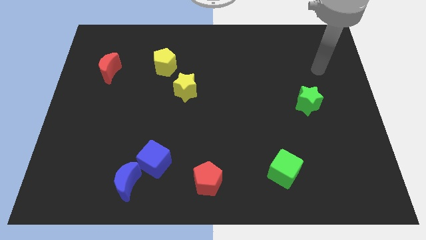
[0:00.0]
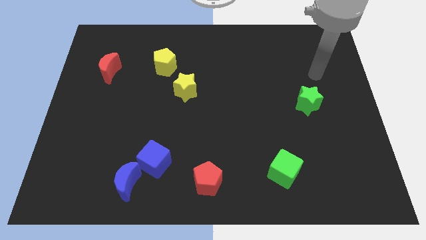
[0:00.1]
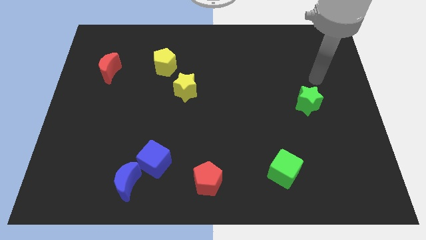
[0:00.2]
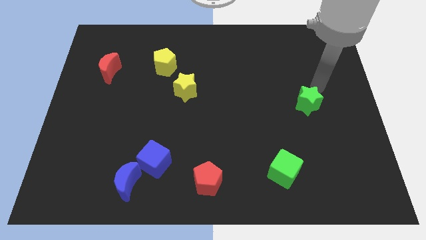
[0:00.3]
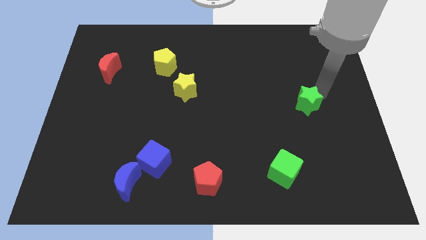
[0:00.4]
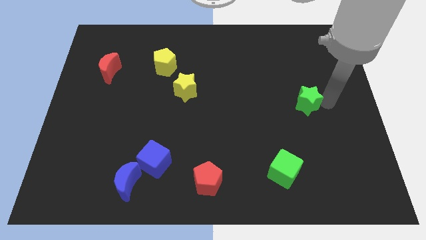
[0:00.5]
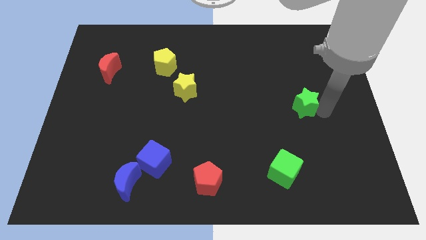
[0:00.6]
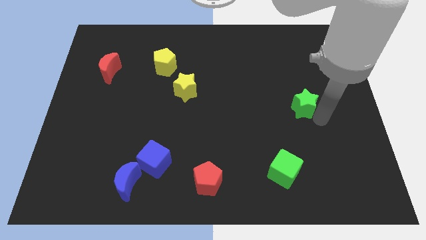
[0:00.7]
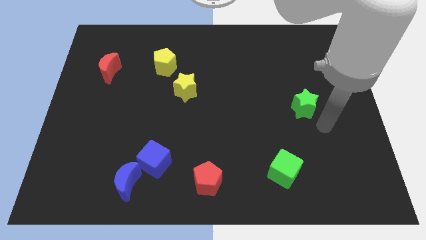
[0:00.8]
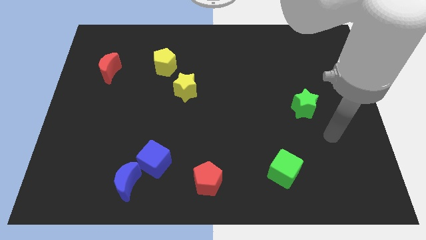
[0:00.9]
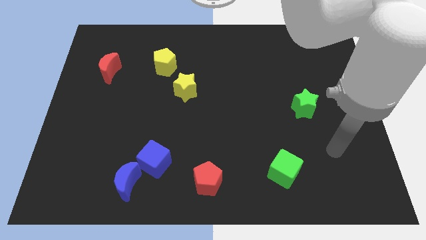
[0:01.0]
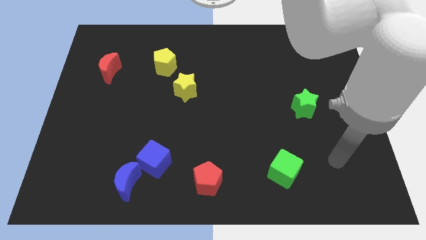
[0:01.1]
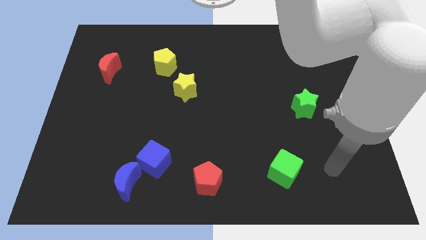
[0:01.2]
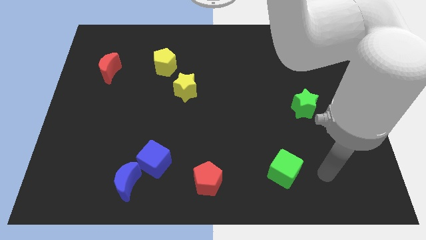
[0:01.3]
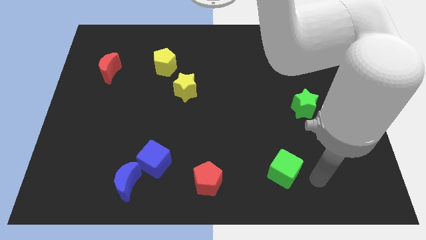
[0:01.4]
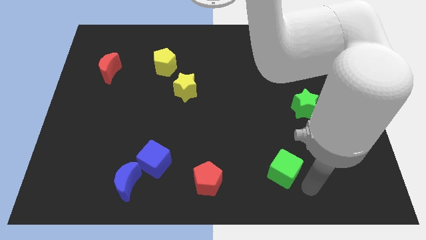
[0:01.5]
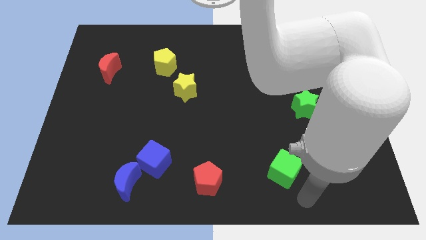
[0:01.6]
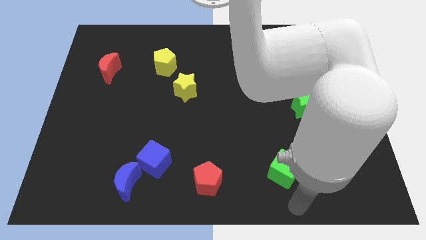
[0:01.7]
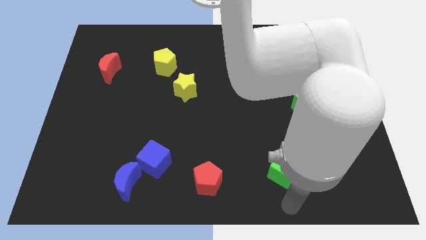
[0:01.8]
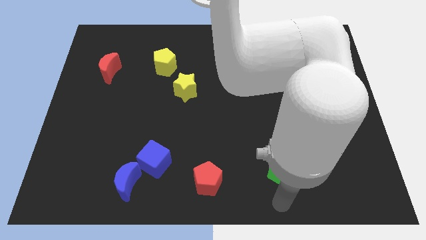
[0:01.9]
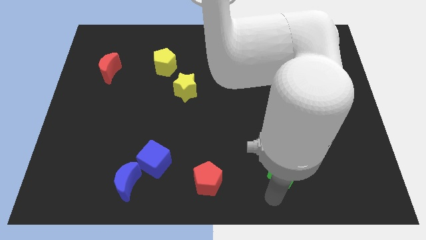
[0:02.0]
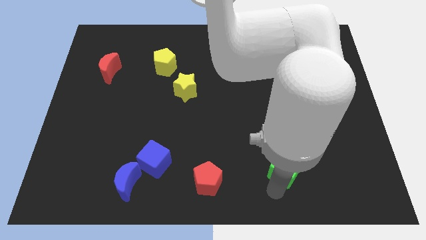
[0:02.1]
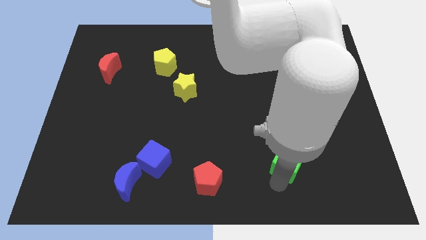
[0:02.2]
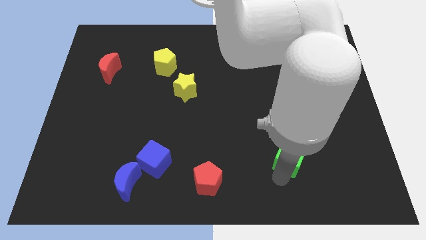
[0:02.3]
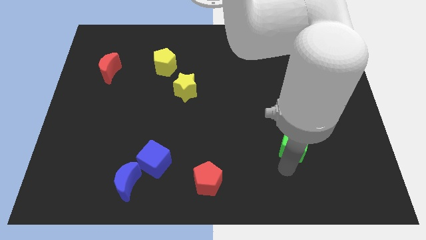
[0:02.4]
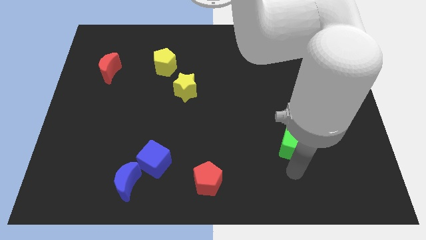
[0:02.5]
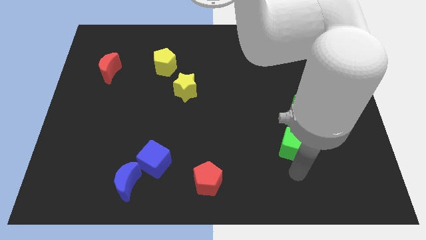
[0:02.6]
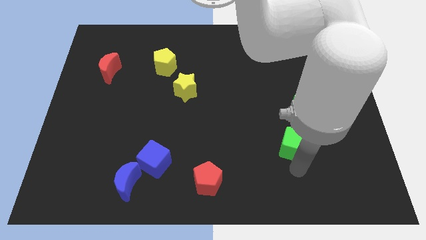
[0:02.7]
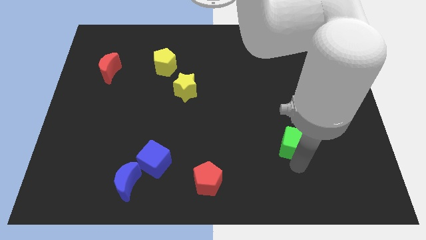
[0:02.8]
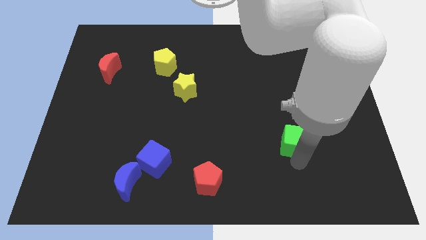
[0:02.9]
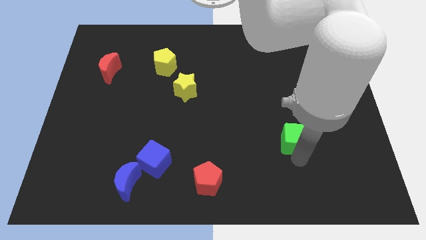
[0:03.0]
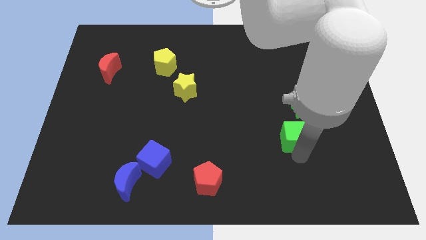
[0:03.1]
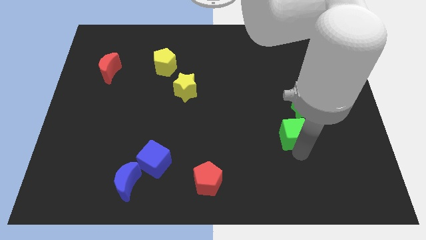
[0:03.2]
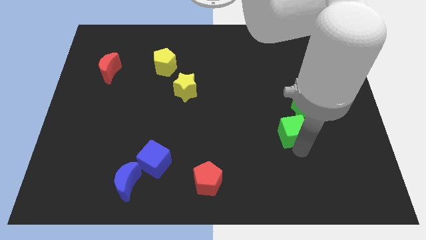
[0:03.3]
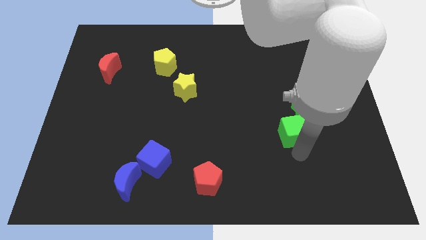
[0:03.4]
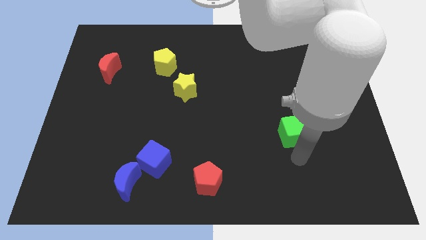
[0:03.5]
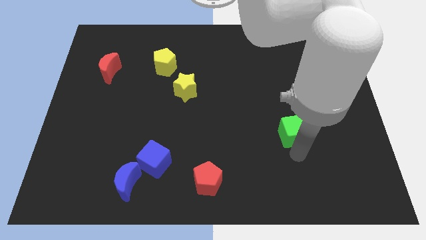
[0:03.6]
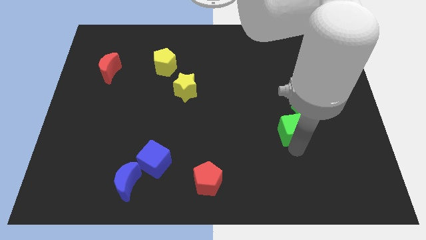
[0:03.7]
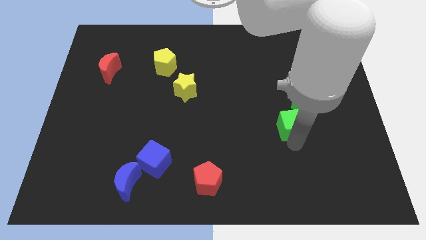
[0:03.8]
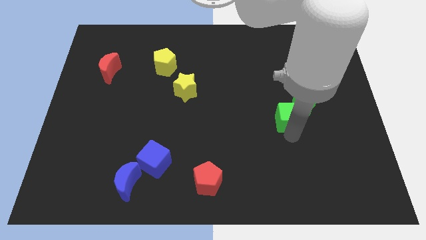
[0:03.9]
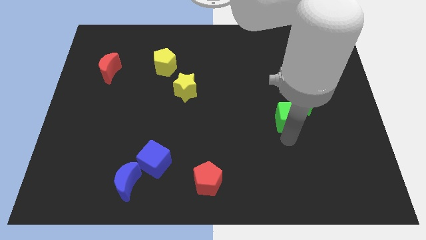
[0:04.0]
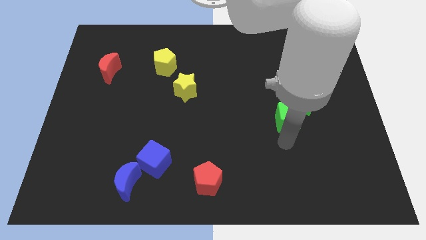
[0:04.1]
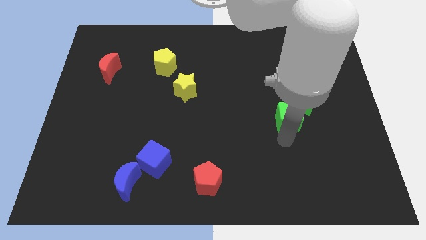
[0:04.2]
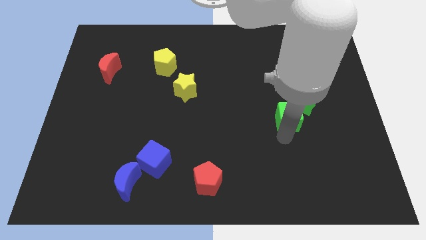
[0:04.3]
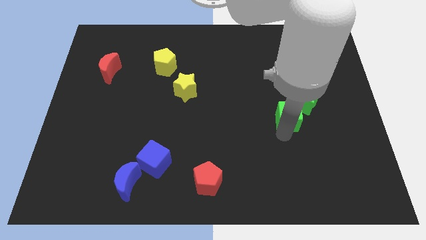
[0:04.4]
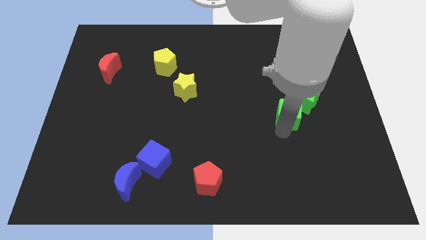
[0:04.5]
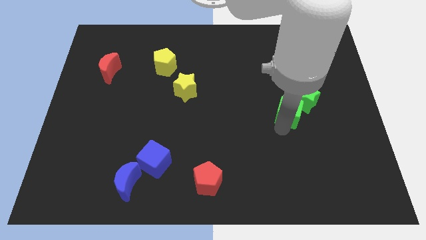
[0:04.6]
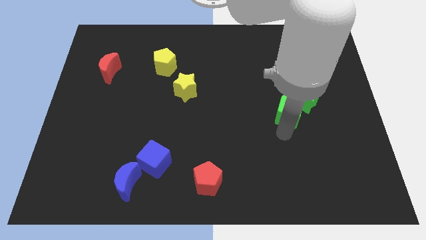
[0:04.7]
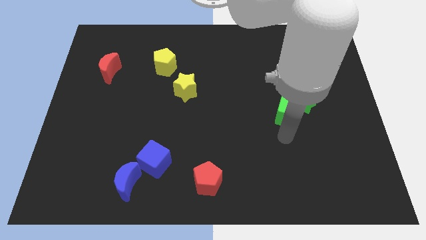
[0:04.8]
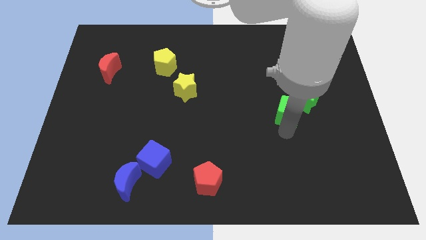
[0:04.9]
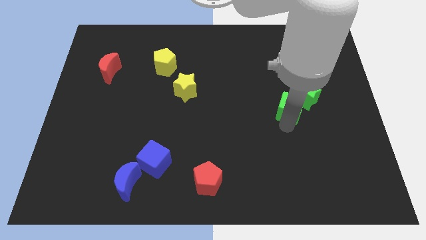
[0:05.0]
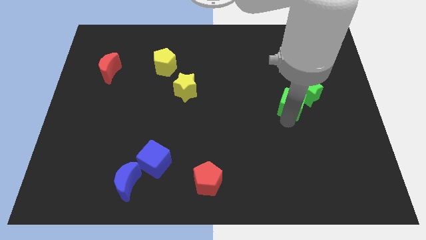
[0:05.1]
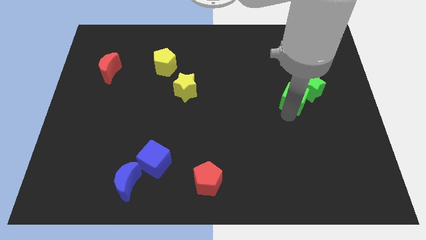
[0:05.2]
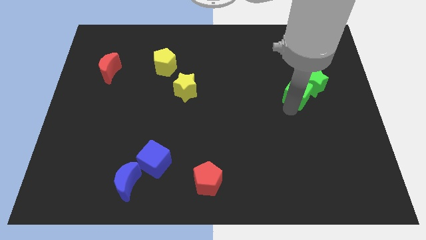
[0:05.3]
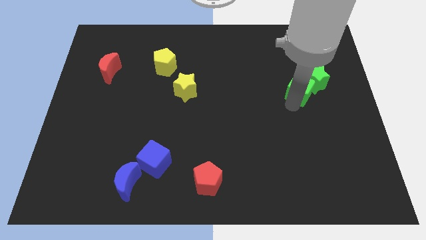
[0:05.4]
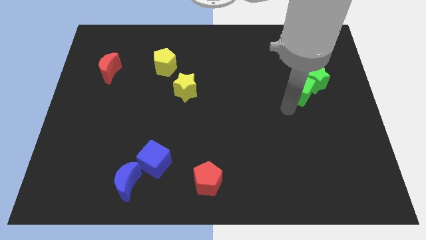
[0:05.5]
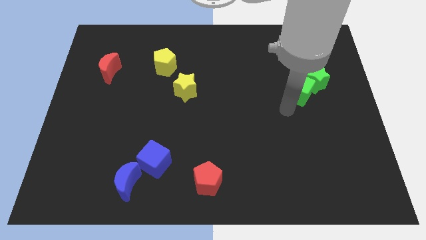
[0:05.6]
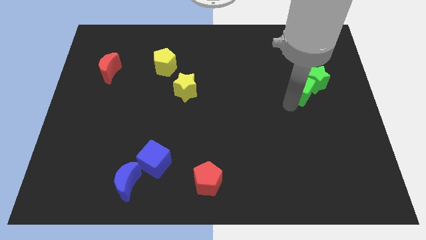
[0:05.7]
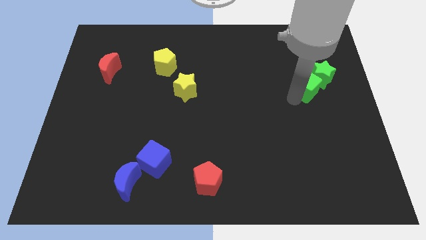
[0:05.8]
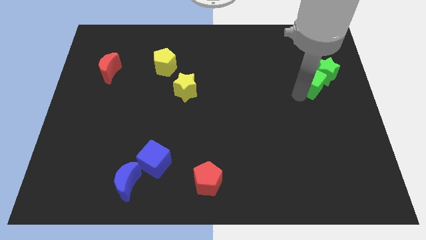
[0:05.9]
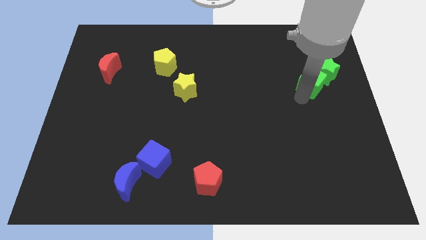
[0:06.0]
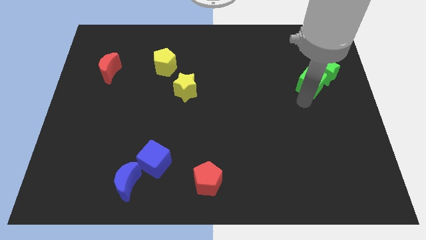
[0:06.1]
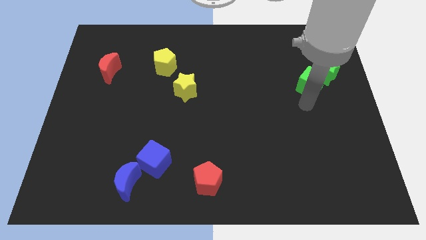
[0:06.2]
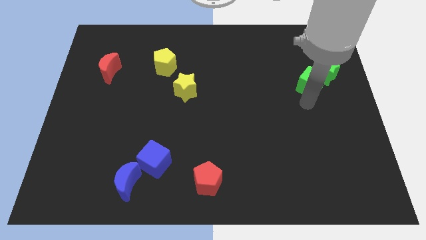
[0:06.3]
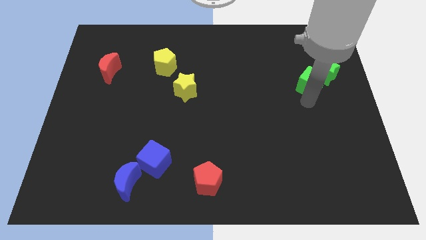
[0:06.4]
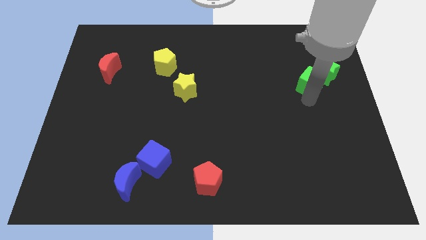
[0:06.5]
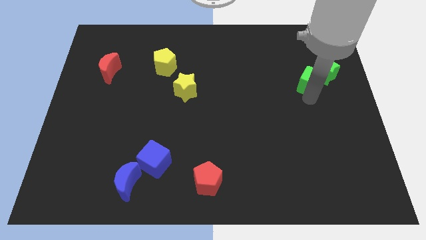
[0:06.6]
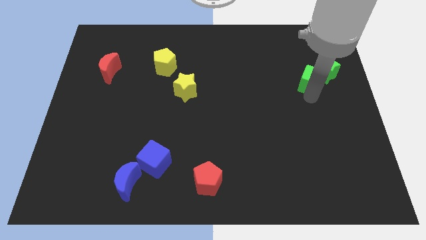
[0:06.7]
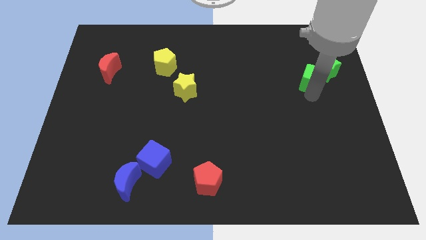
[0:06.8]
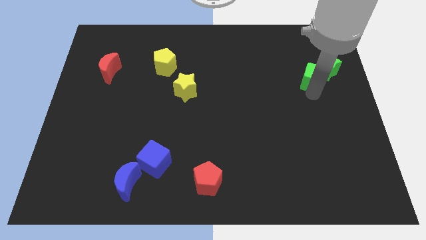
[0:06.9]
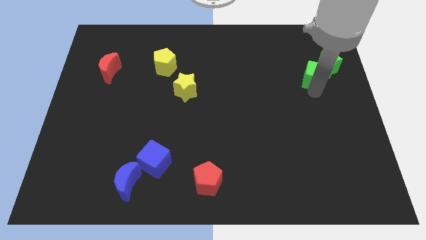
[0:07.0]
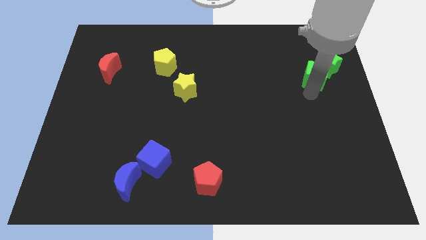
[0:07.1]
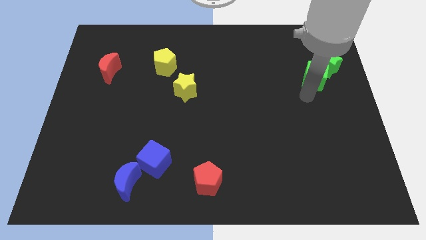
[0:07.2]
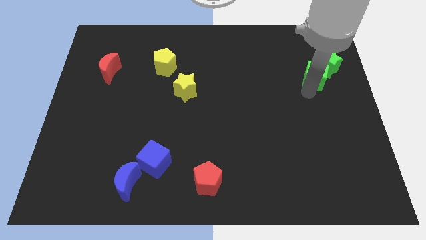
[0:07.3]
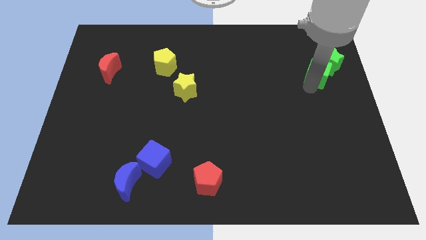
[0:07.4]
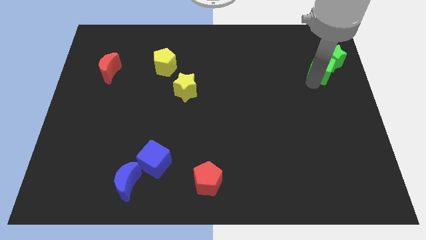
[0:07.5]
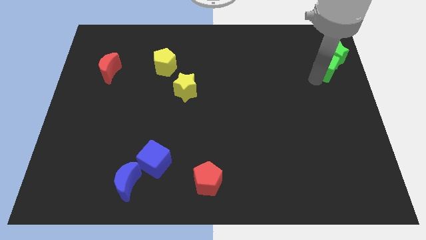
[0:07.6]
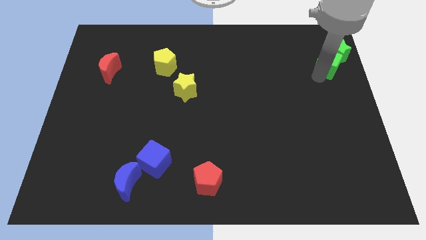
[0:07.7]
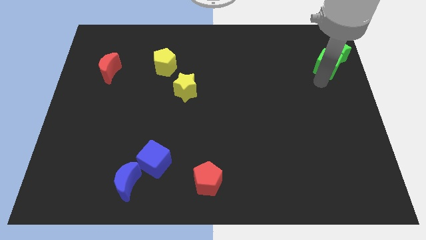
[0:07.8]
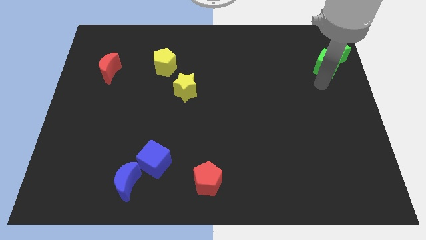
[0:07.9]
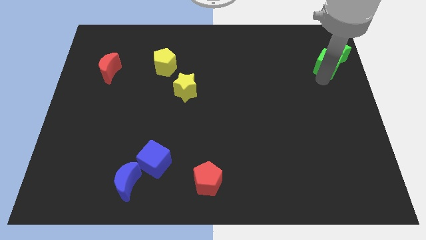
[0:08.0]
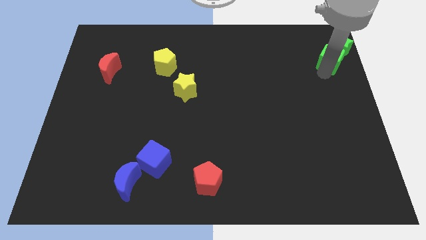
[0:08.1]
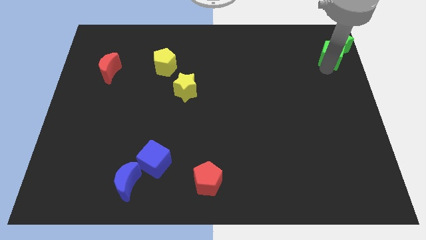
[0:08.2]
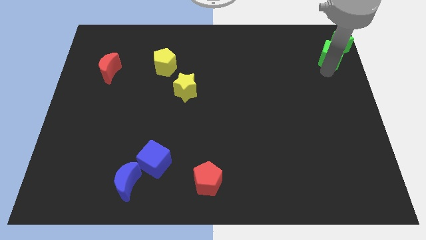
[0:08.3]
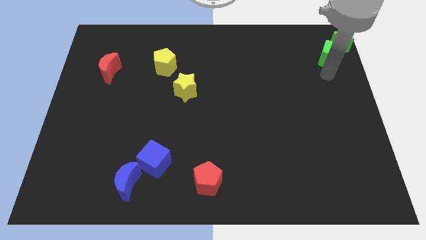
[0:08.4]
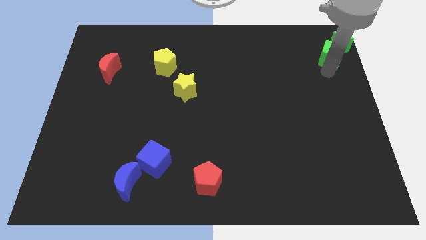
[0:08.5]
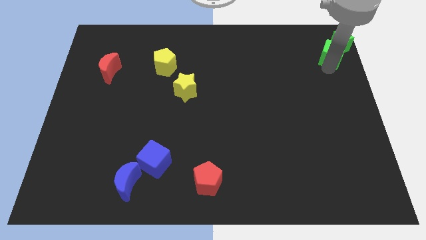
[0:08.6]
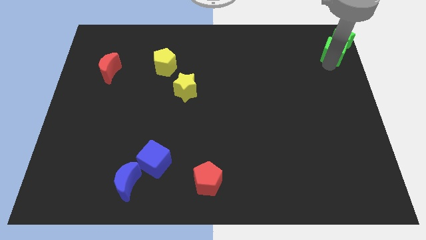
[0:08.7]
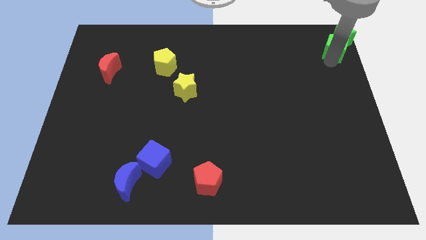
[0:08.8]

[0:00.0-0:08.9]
put the green cube to the top right of the board
